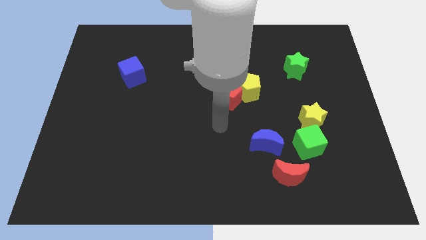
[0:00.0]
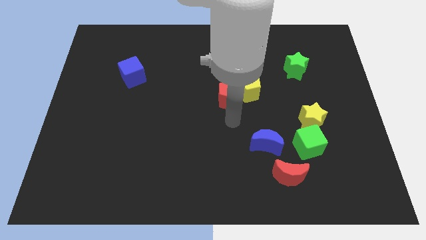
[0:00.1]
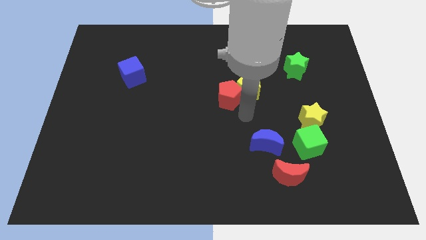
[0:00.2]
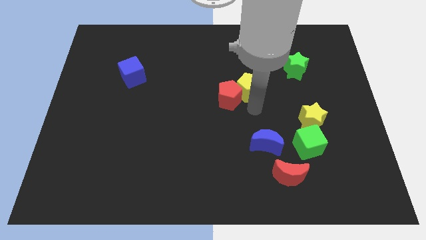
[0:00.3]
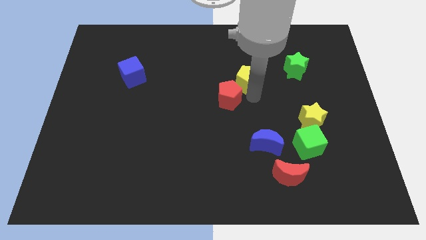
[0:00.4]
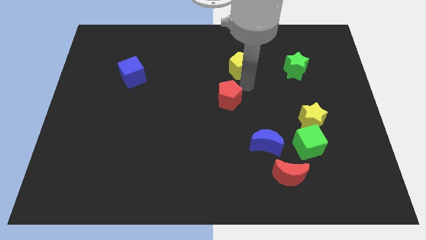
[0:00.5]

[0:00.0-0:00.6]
separate the red pentagon from the yellow pentagon

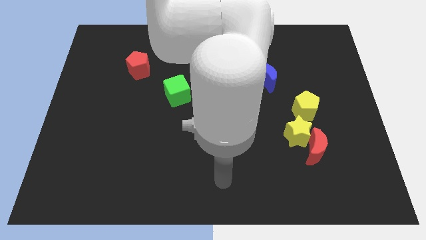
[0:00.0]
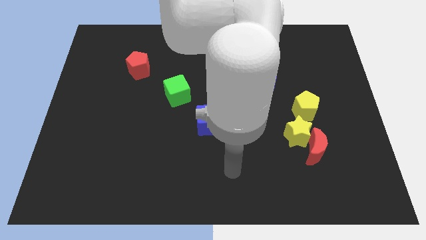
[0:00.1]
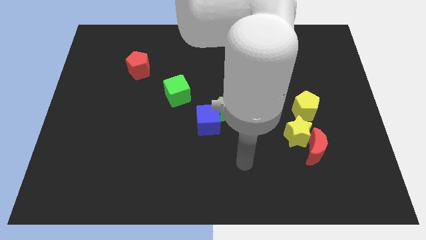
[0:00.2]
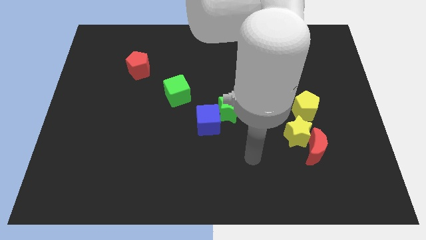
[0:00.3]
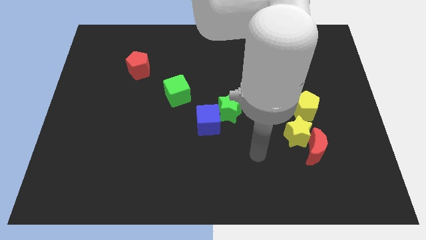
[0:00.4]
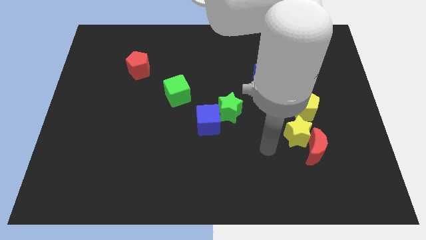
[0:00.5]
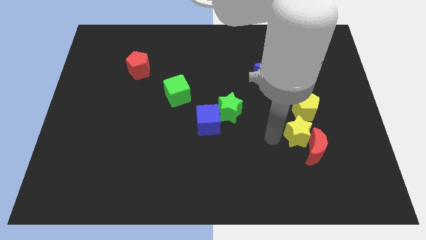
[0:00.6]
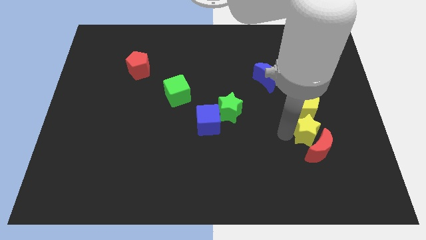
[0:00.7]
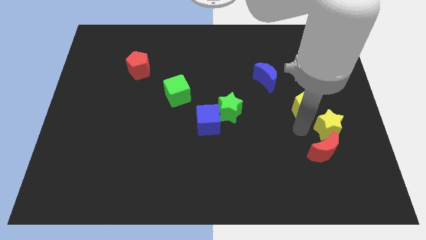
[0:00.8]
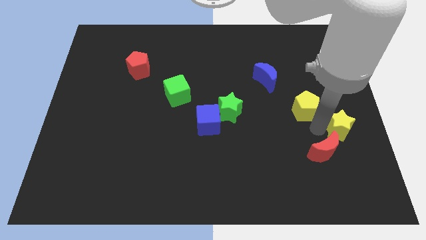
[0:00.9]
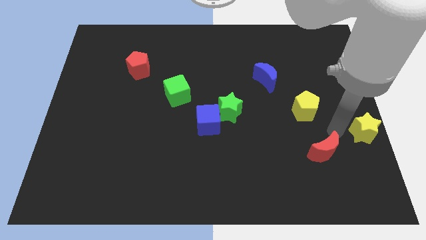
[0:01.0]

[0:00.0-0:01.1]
separate the red moon from the yellow star

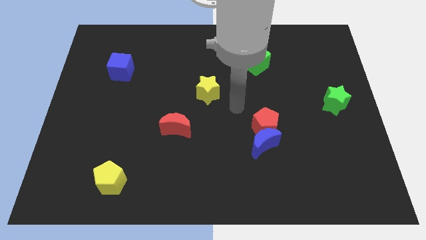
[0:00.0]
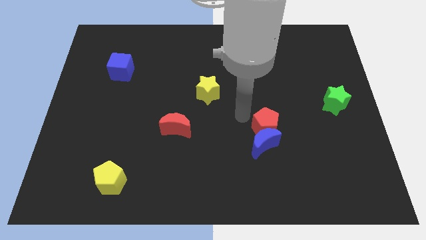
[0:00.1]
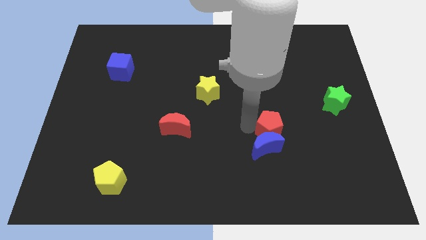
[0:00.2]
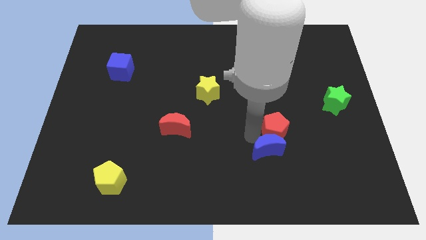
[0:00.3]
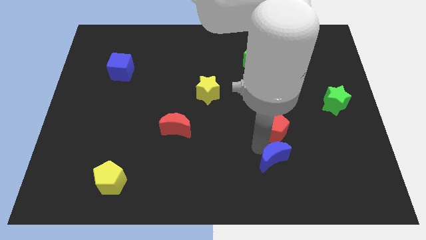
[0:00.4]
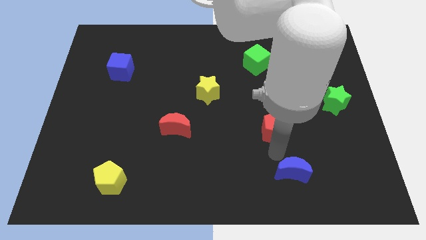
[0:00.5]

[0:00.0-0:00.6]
separate the red pentagon from the blue moon

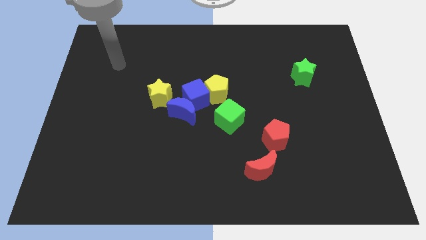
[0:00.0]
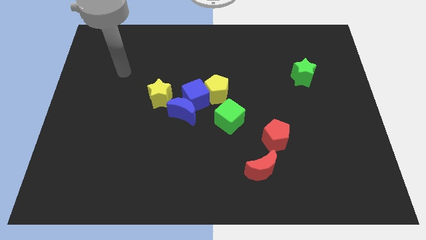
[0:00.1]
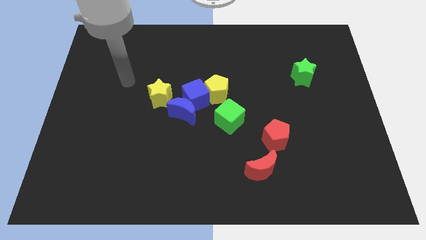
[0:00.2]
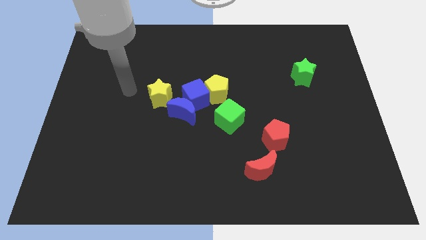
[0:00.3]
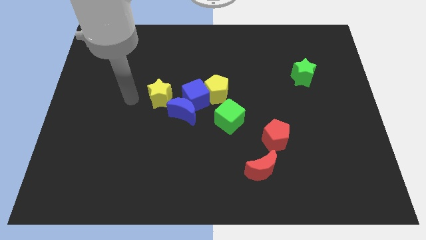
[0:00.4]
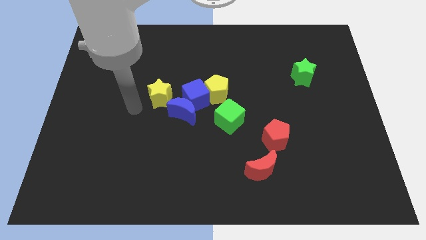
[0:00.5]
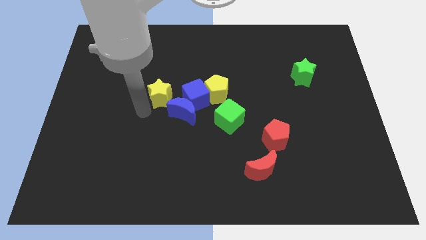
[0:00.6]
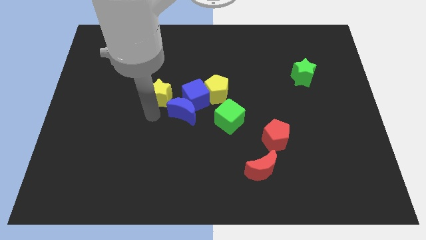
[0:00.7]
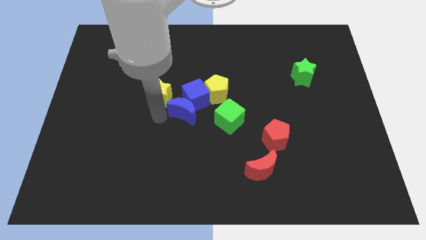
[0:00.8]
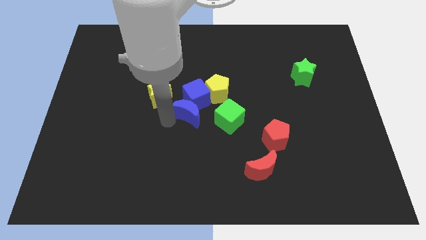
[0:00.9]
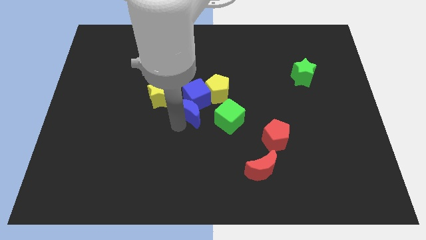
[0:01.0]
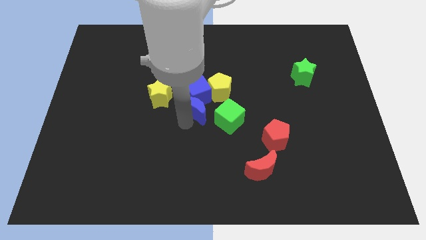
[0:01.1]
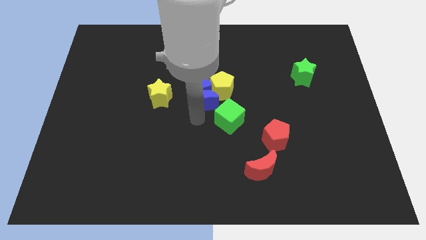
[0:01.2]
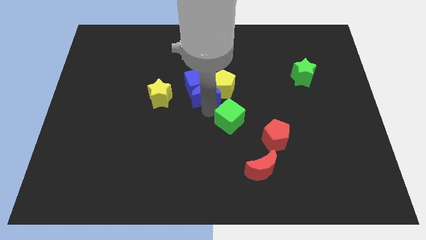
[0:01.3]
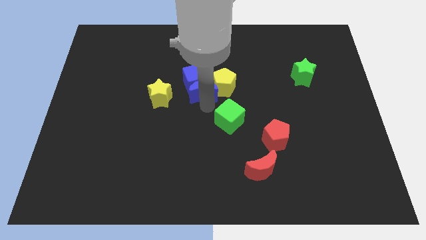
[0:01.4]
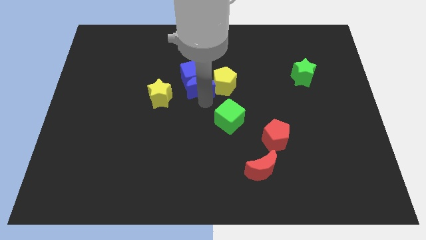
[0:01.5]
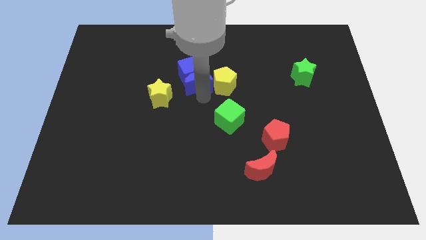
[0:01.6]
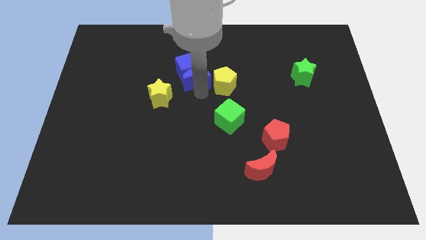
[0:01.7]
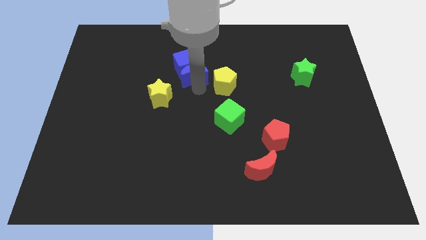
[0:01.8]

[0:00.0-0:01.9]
move the blue cube away from the group of blocks

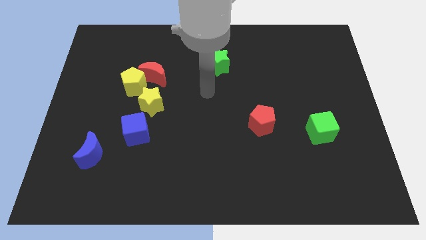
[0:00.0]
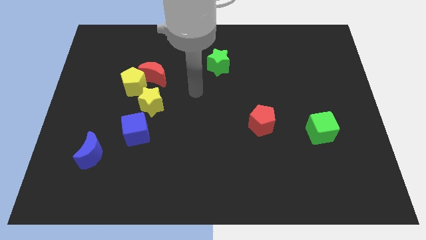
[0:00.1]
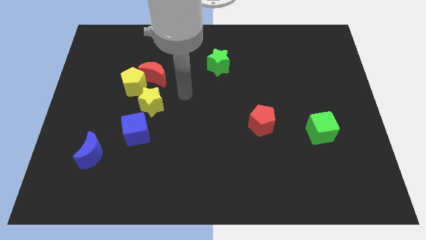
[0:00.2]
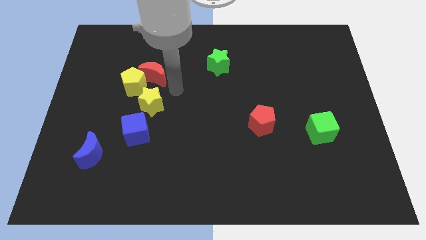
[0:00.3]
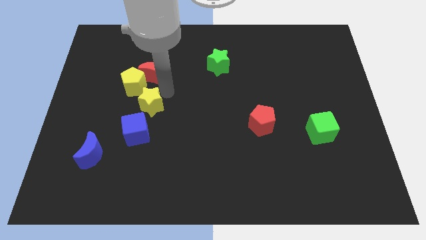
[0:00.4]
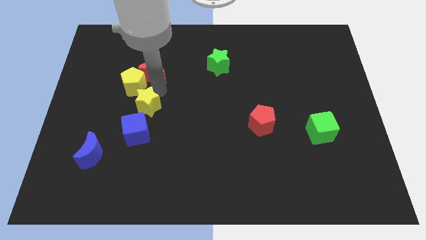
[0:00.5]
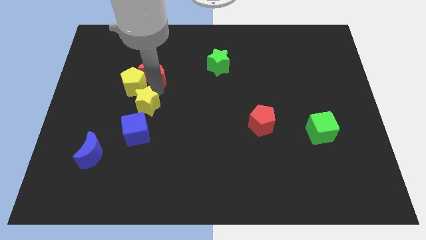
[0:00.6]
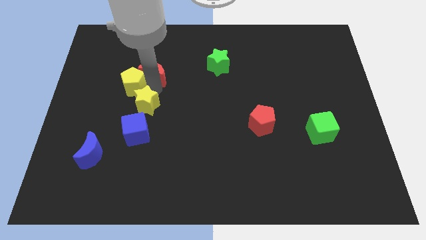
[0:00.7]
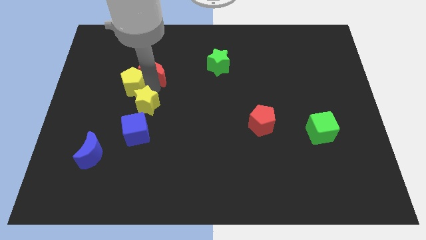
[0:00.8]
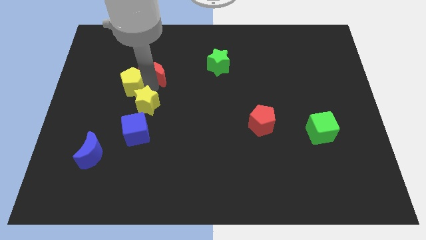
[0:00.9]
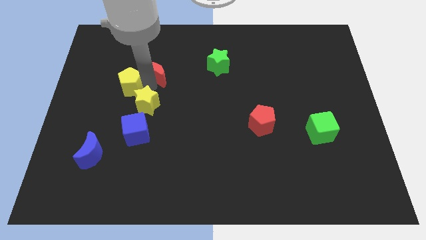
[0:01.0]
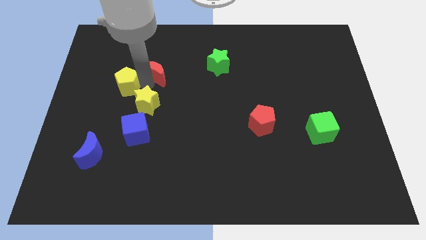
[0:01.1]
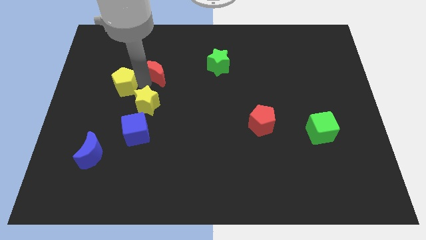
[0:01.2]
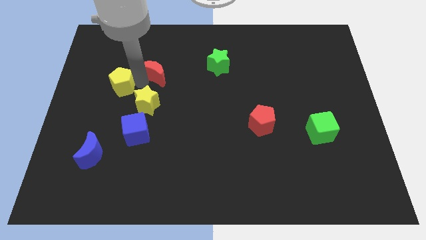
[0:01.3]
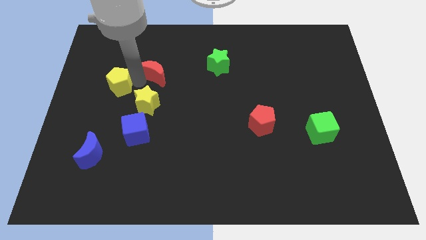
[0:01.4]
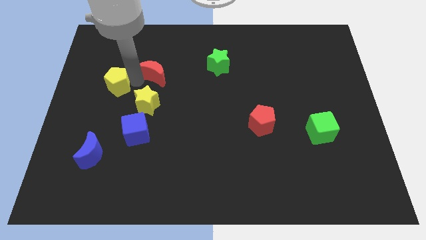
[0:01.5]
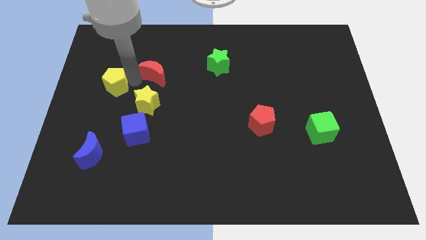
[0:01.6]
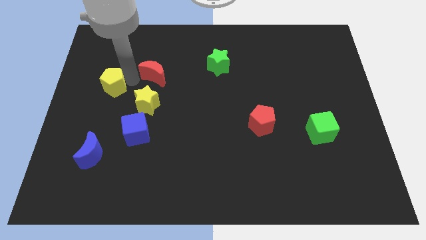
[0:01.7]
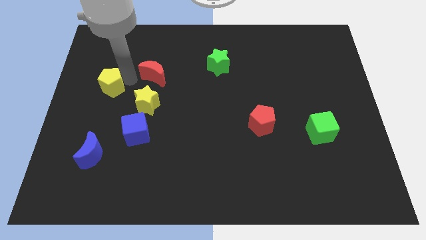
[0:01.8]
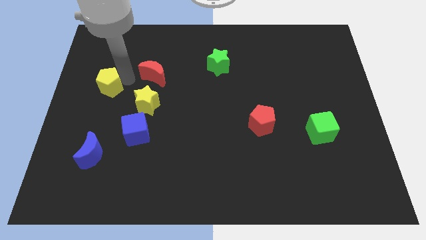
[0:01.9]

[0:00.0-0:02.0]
pull the yellow pentagon apart from the red moon and yellow star

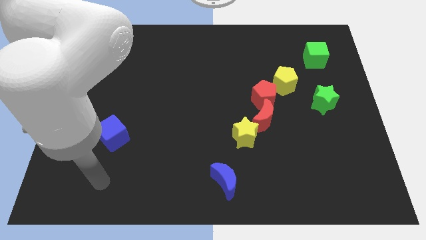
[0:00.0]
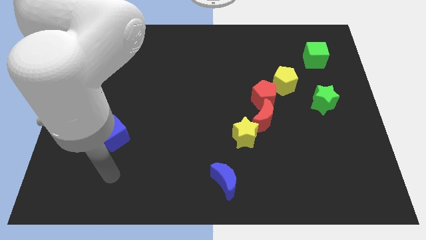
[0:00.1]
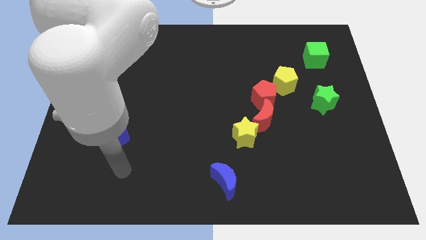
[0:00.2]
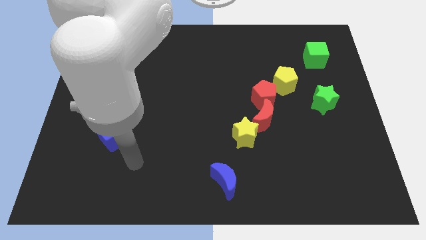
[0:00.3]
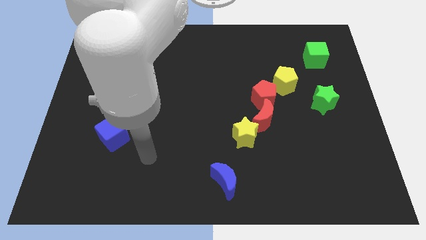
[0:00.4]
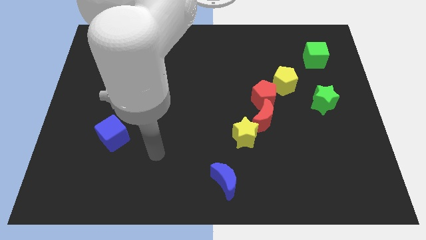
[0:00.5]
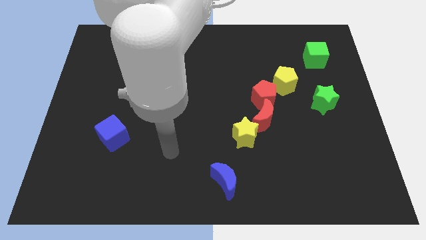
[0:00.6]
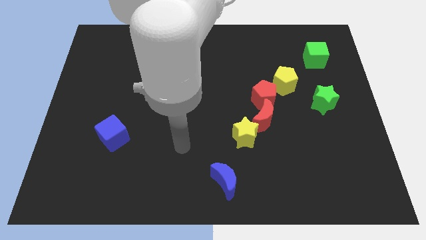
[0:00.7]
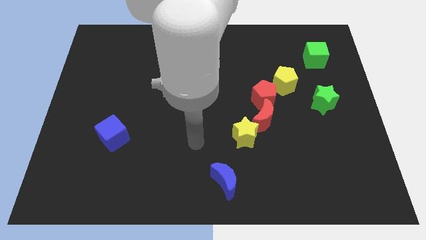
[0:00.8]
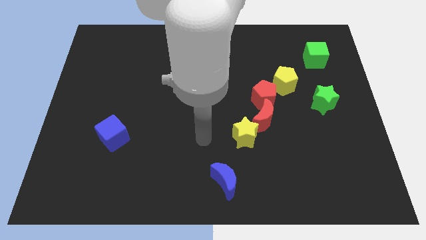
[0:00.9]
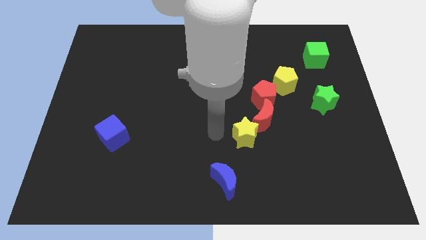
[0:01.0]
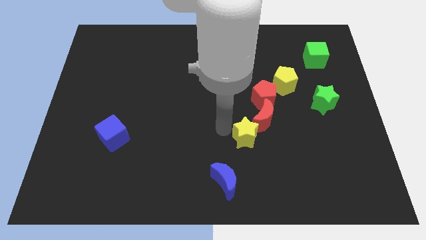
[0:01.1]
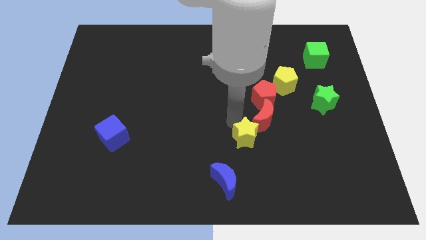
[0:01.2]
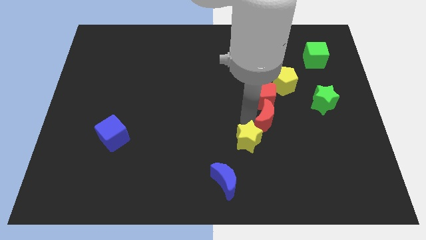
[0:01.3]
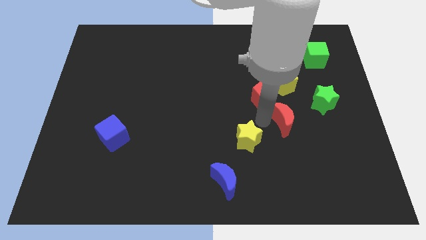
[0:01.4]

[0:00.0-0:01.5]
pull the yellow star apart from the red moon

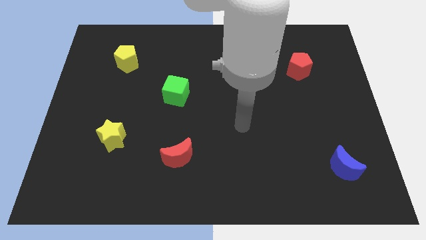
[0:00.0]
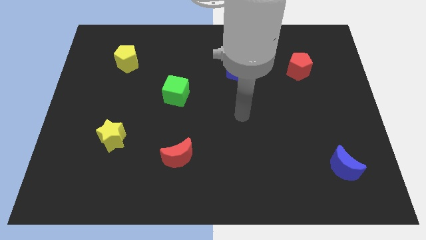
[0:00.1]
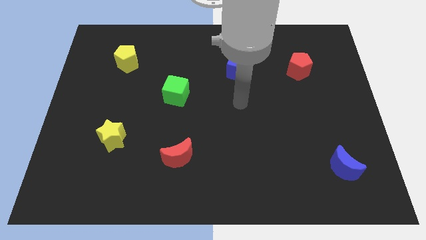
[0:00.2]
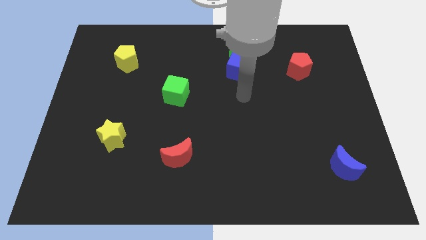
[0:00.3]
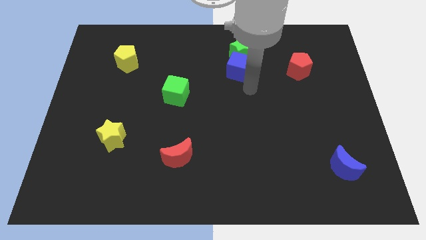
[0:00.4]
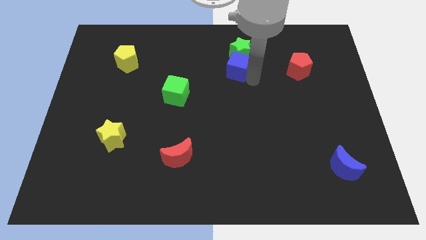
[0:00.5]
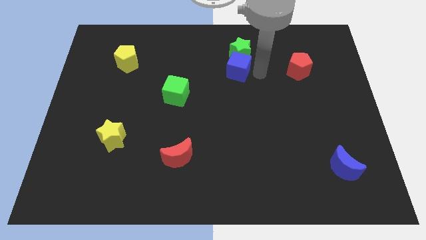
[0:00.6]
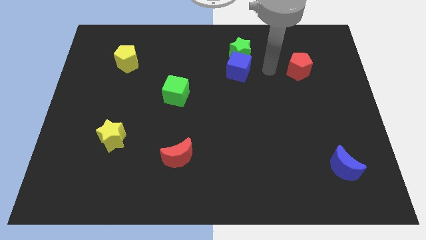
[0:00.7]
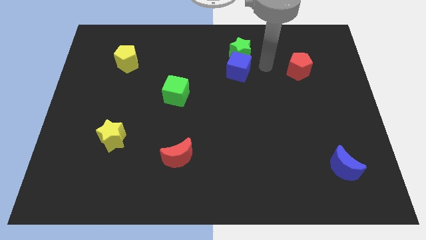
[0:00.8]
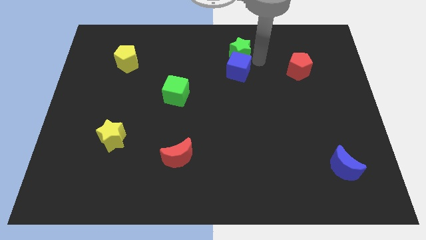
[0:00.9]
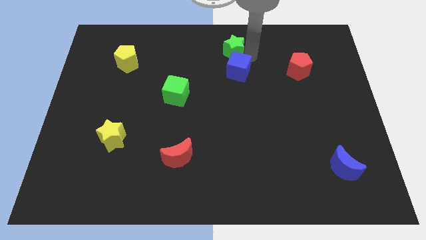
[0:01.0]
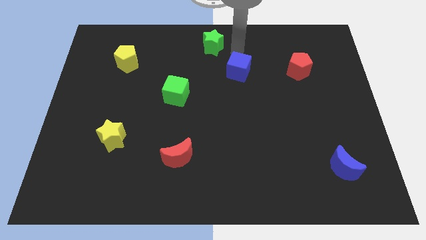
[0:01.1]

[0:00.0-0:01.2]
move the blue cube away from the green star

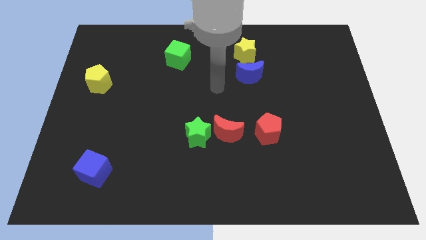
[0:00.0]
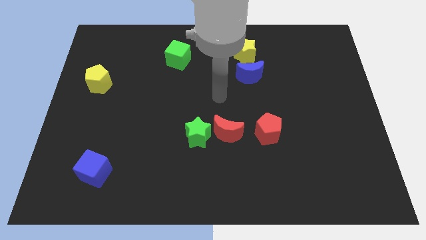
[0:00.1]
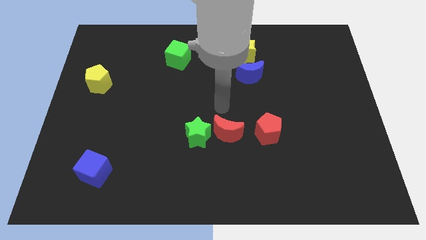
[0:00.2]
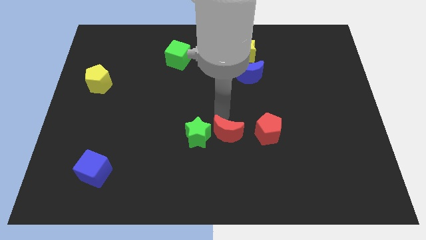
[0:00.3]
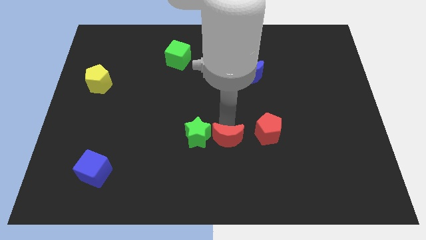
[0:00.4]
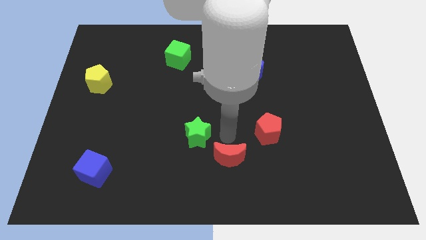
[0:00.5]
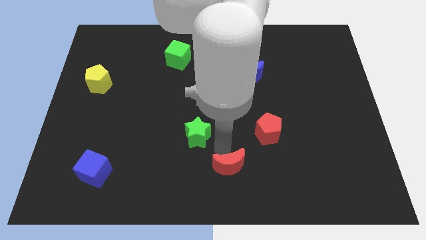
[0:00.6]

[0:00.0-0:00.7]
pull the green star apart from the red moon
